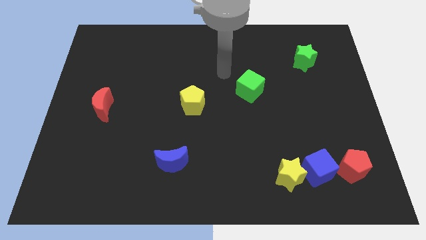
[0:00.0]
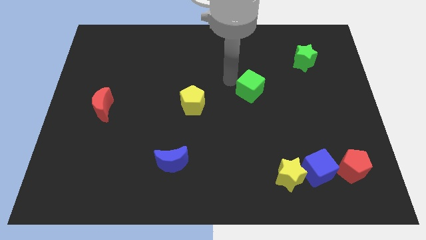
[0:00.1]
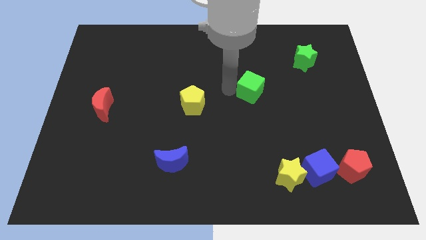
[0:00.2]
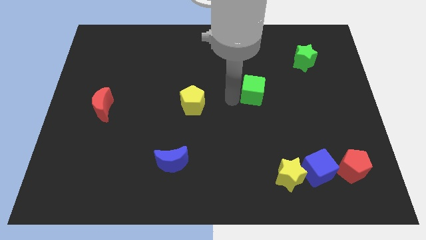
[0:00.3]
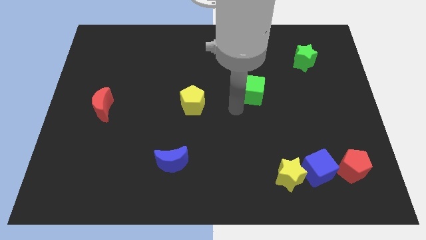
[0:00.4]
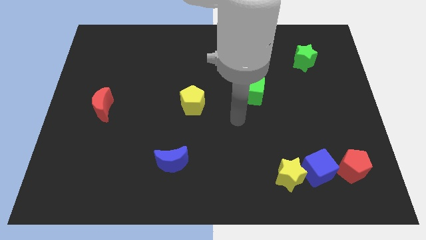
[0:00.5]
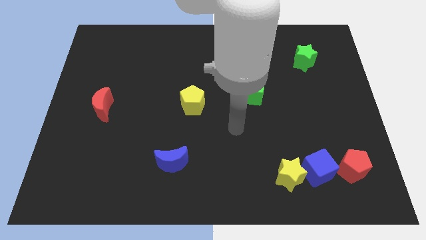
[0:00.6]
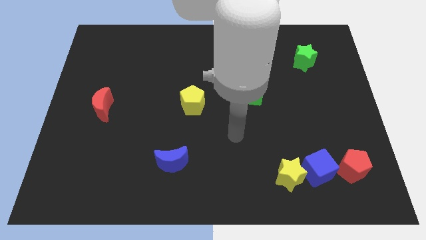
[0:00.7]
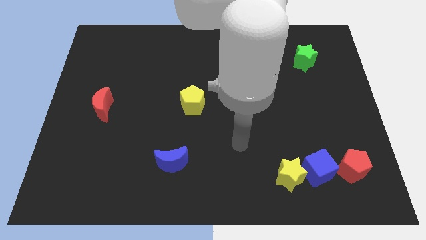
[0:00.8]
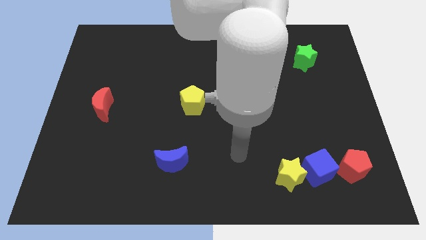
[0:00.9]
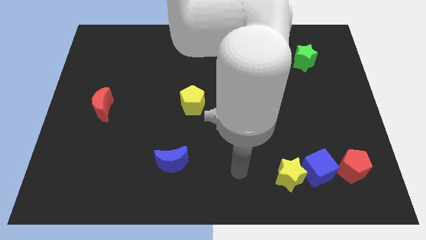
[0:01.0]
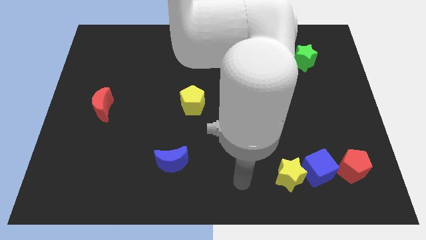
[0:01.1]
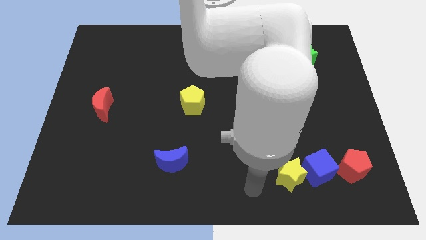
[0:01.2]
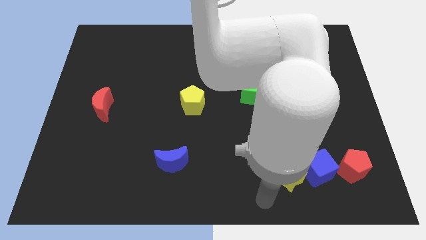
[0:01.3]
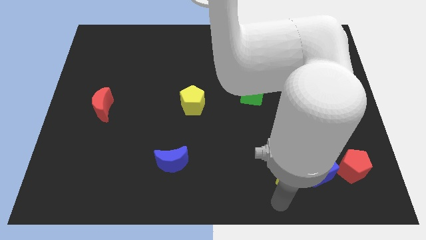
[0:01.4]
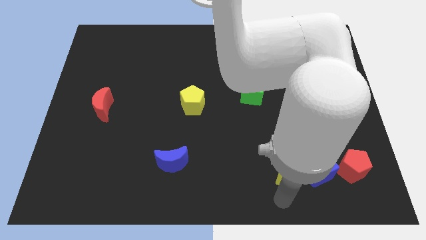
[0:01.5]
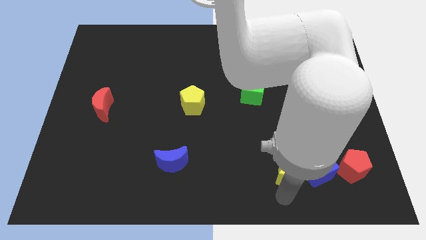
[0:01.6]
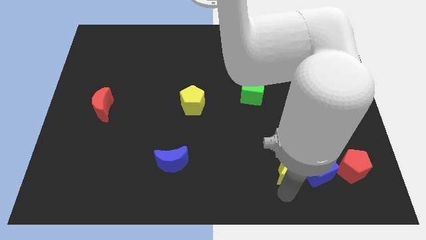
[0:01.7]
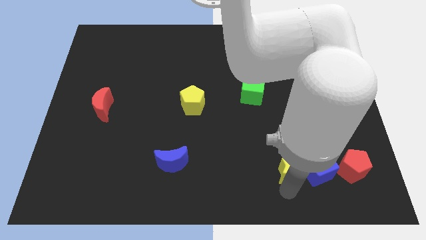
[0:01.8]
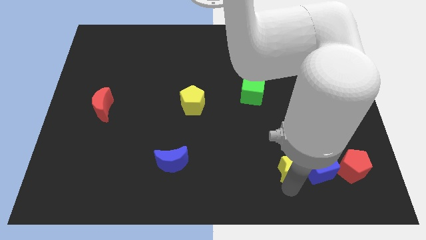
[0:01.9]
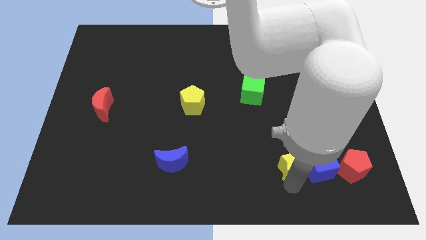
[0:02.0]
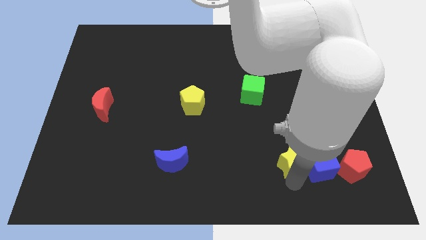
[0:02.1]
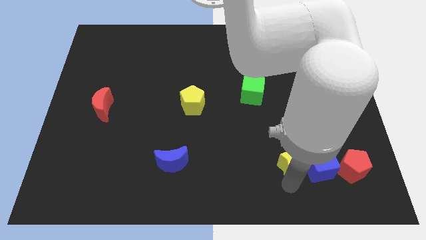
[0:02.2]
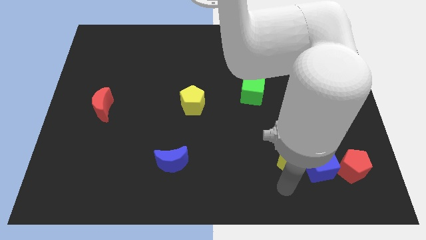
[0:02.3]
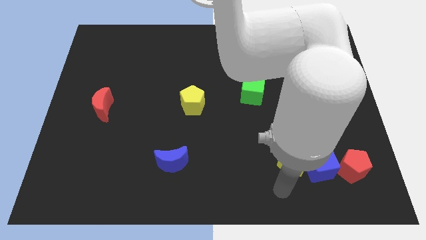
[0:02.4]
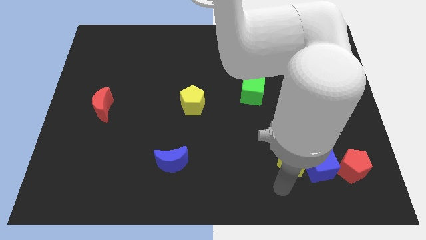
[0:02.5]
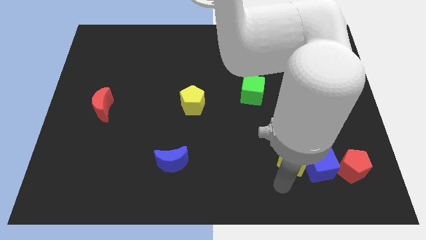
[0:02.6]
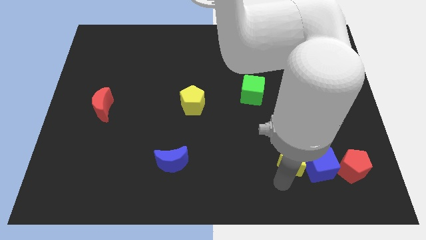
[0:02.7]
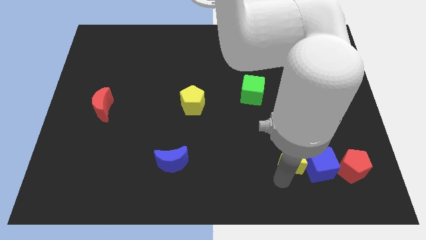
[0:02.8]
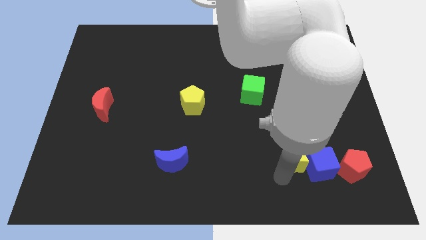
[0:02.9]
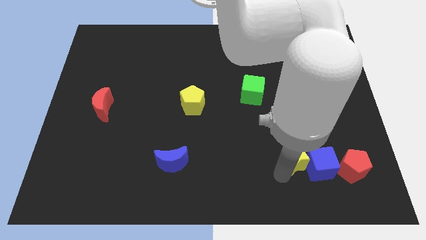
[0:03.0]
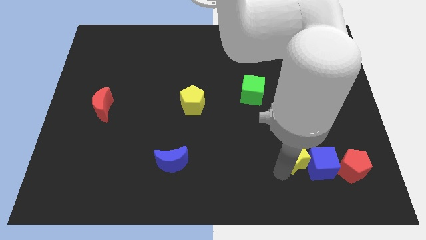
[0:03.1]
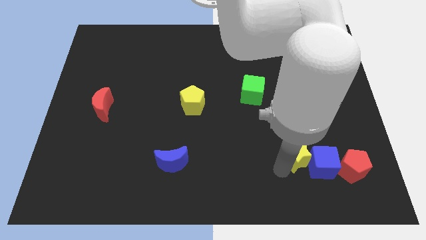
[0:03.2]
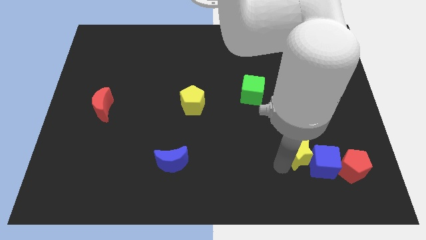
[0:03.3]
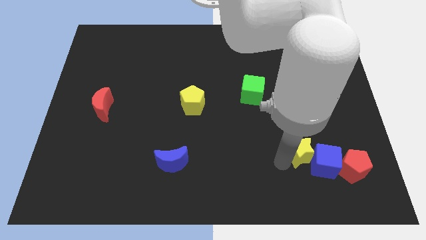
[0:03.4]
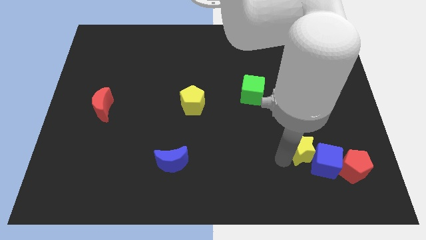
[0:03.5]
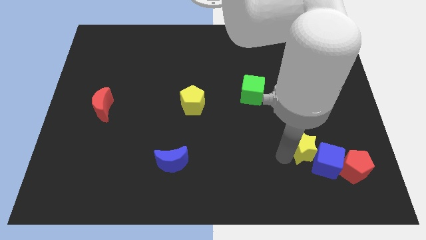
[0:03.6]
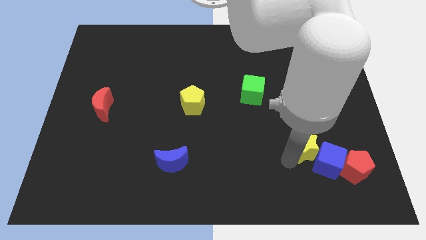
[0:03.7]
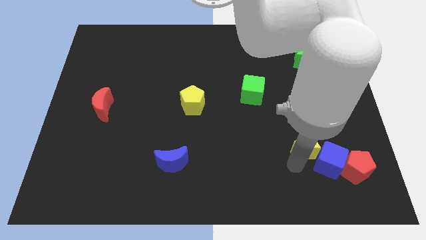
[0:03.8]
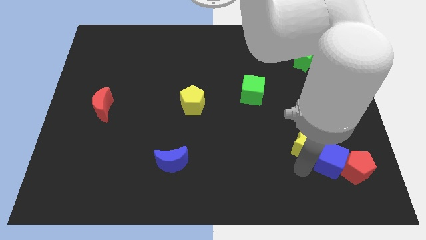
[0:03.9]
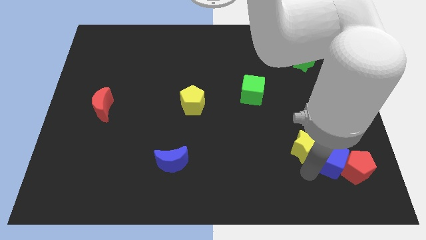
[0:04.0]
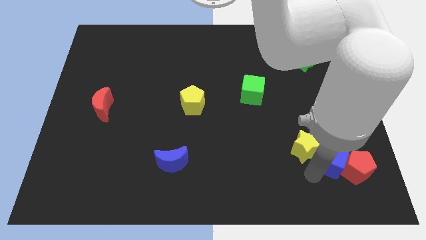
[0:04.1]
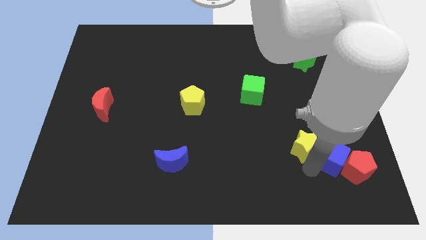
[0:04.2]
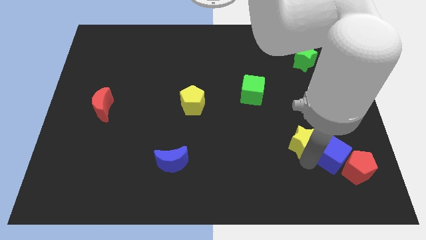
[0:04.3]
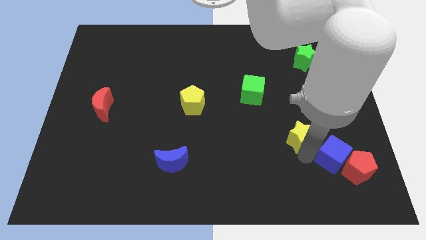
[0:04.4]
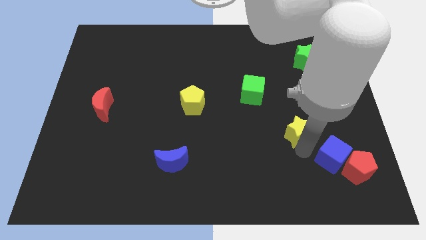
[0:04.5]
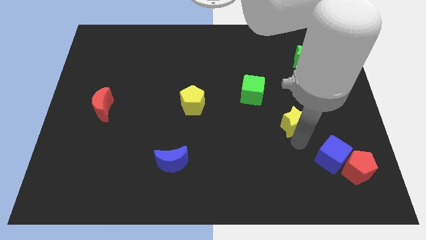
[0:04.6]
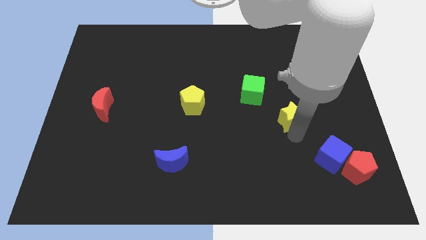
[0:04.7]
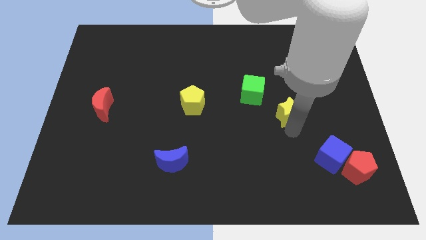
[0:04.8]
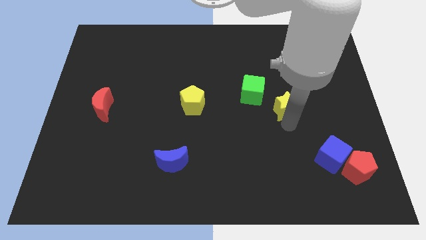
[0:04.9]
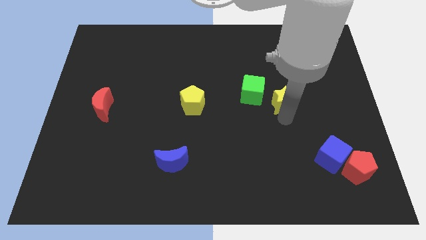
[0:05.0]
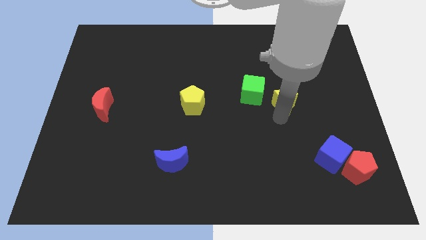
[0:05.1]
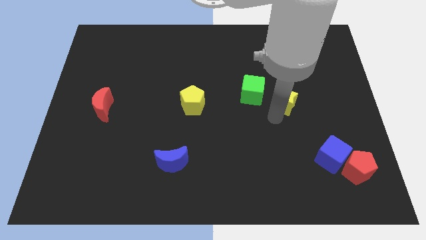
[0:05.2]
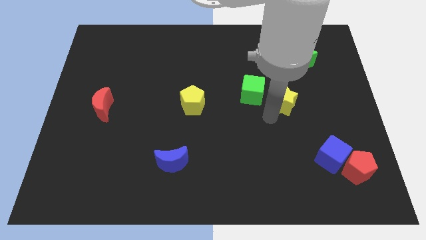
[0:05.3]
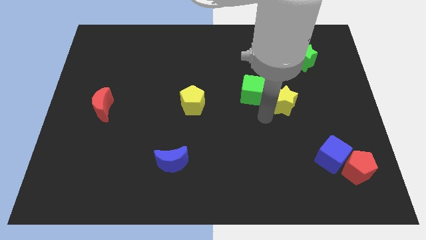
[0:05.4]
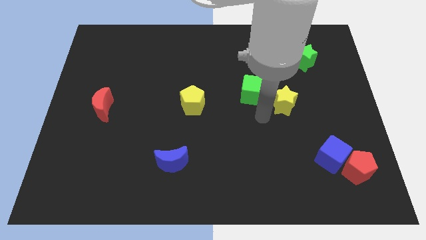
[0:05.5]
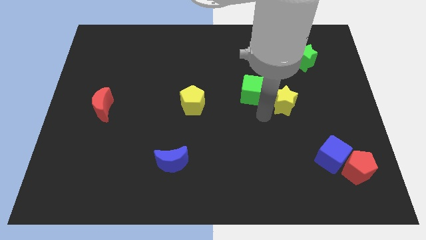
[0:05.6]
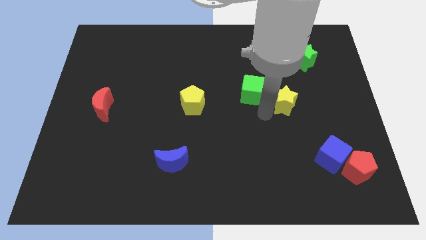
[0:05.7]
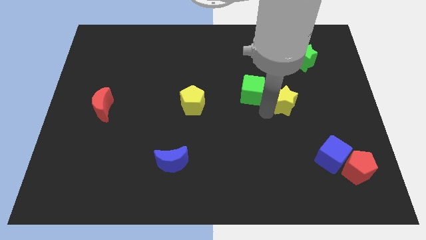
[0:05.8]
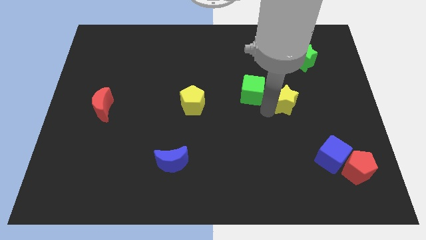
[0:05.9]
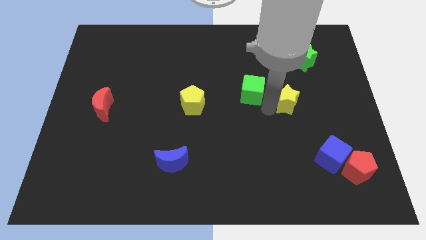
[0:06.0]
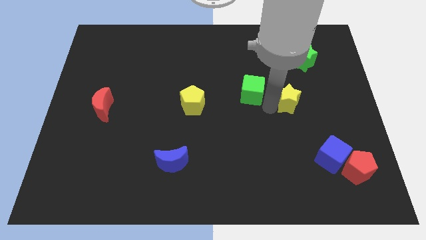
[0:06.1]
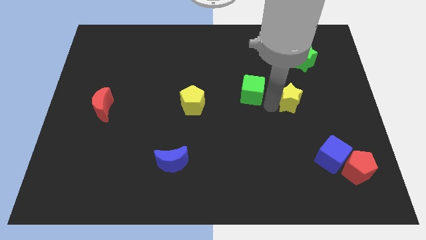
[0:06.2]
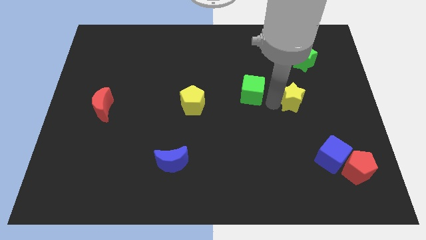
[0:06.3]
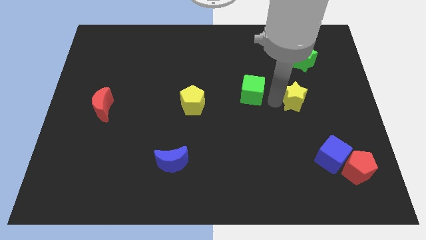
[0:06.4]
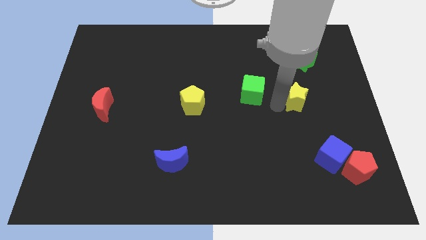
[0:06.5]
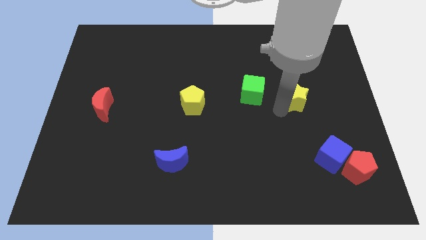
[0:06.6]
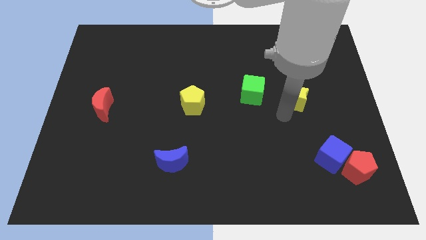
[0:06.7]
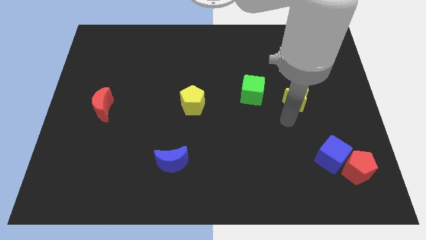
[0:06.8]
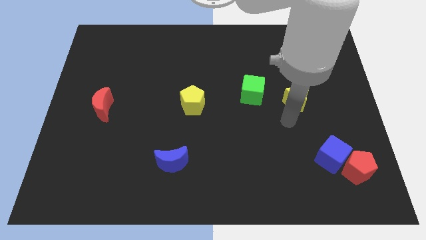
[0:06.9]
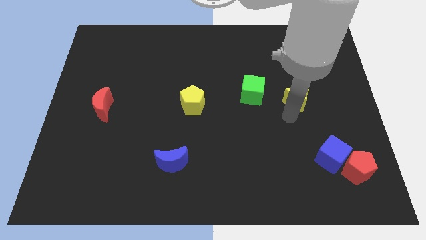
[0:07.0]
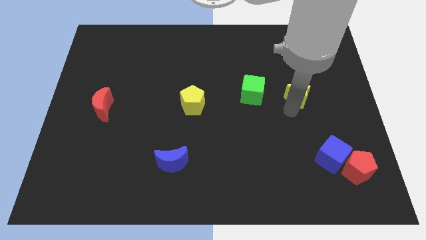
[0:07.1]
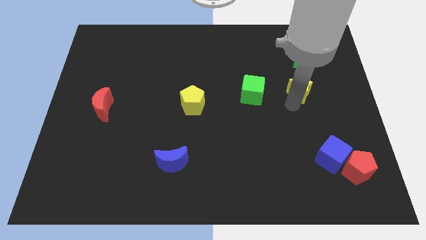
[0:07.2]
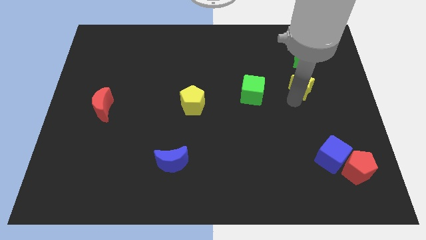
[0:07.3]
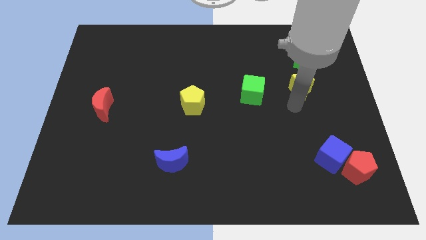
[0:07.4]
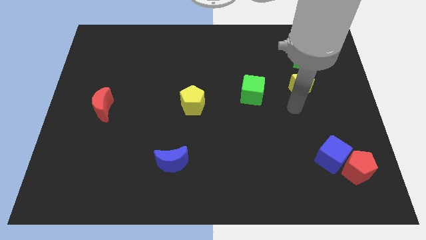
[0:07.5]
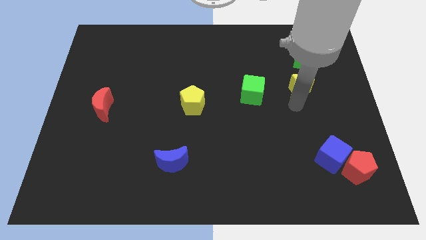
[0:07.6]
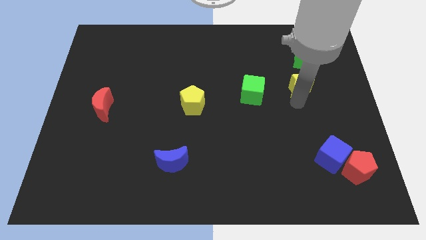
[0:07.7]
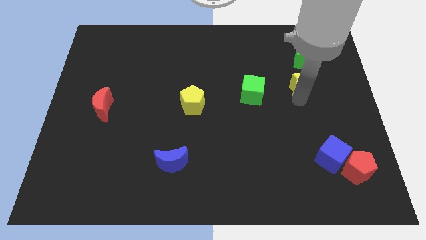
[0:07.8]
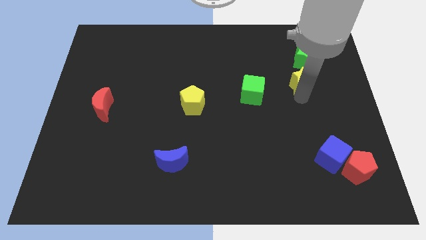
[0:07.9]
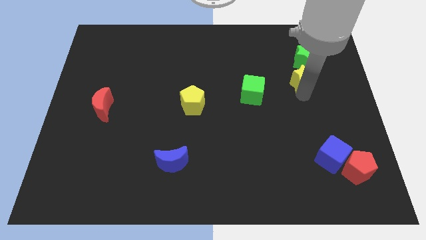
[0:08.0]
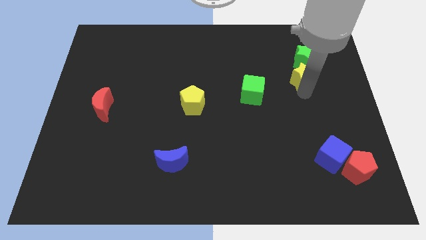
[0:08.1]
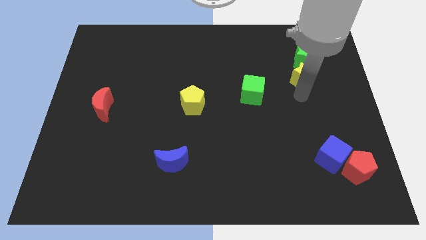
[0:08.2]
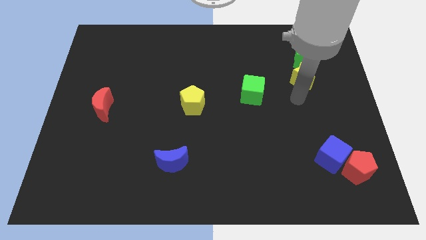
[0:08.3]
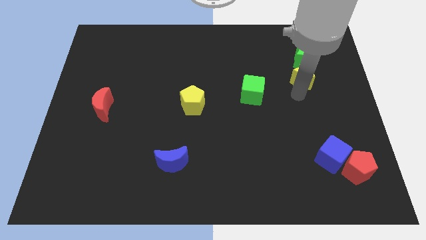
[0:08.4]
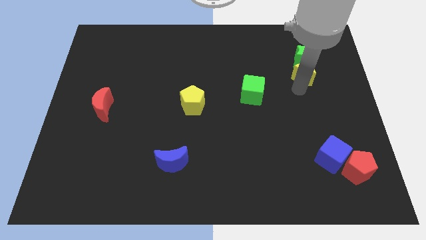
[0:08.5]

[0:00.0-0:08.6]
slide the yellow star next to the green star
